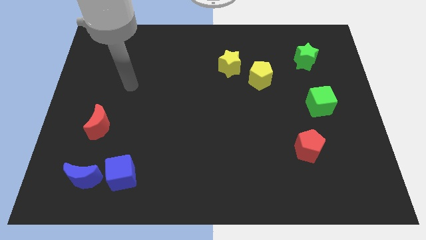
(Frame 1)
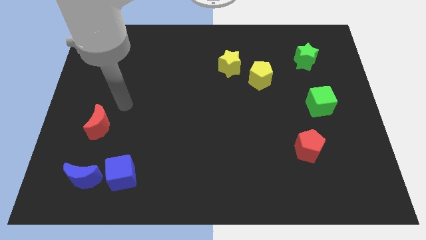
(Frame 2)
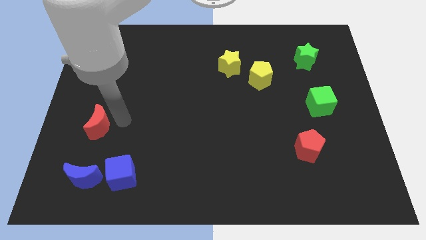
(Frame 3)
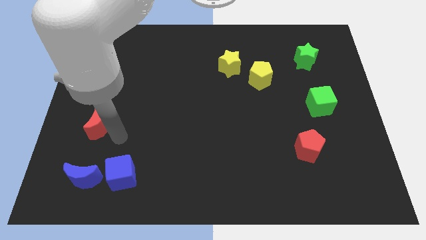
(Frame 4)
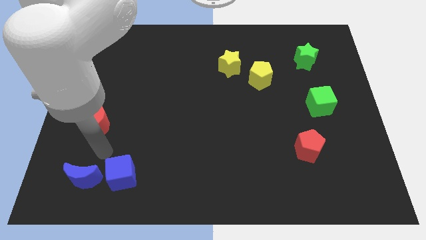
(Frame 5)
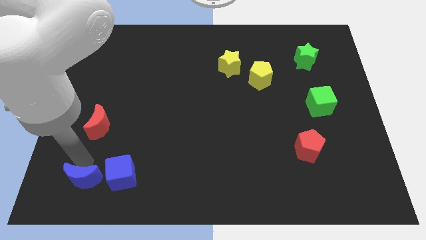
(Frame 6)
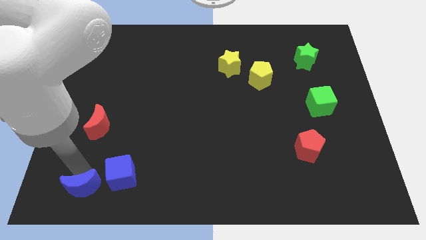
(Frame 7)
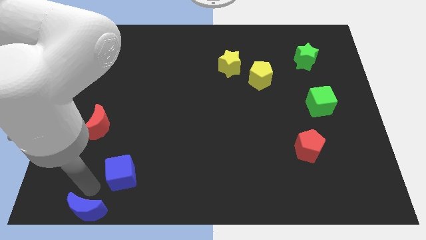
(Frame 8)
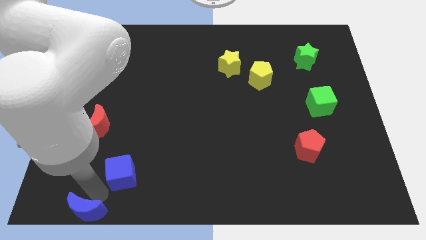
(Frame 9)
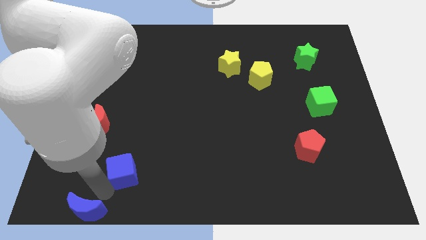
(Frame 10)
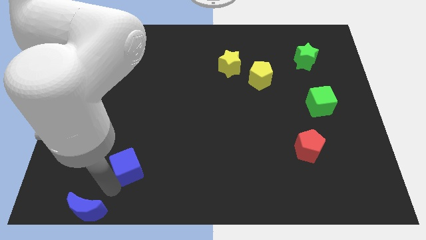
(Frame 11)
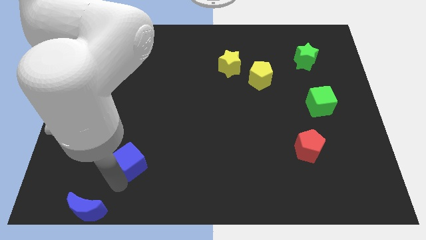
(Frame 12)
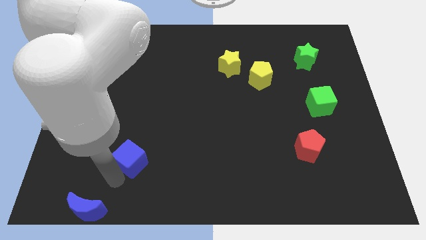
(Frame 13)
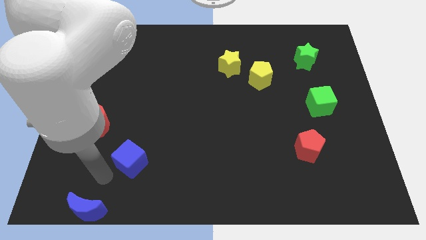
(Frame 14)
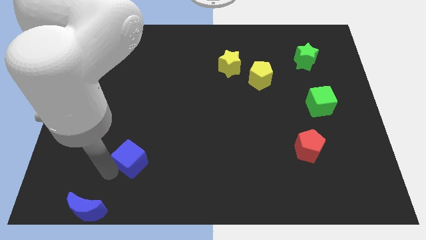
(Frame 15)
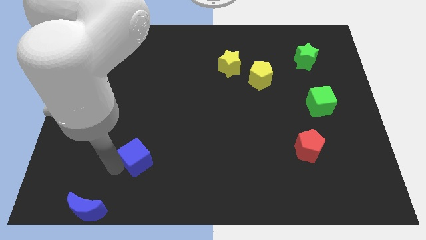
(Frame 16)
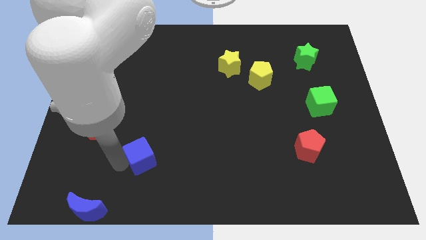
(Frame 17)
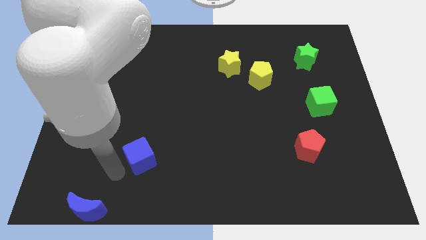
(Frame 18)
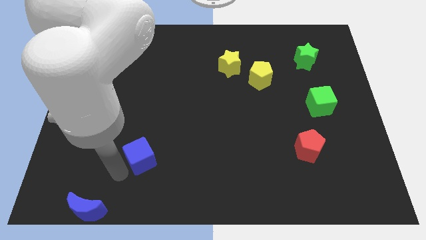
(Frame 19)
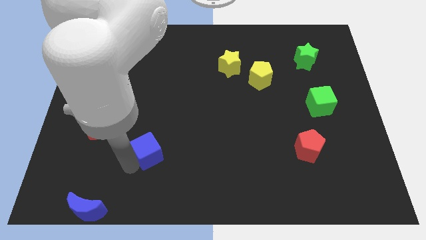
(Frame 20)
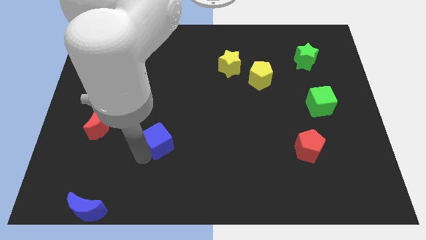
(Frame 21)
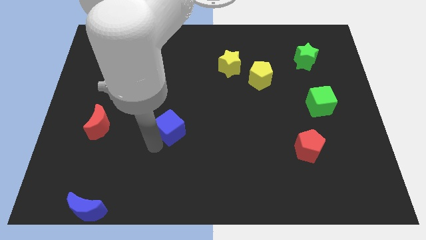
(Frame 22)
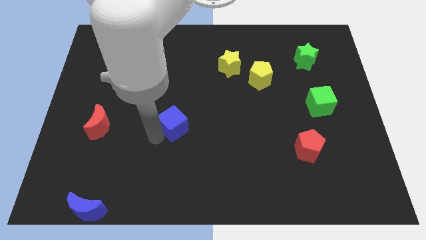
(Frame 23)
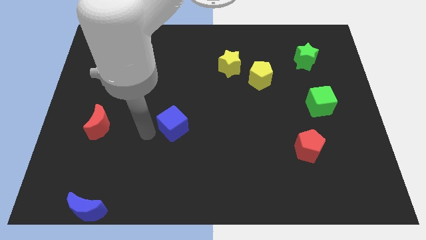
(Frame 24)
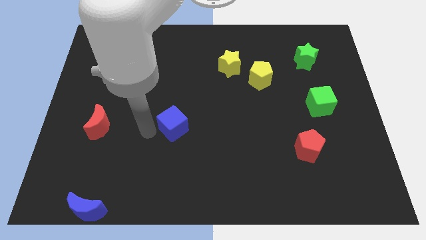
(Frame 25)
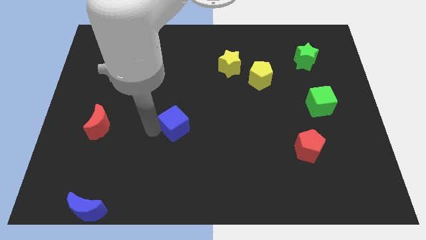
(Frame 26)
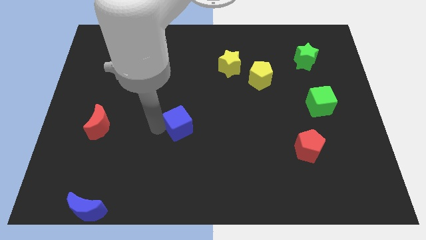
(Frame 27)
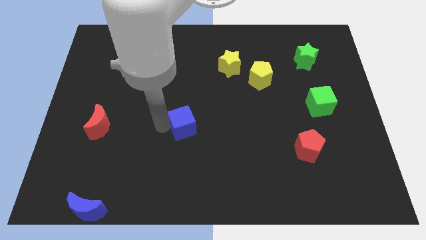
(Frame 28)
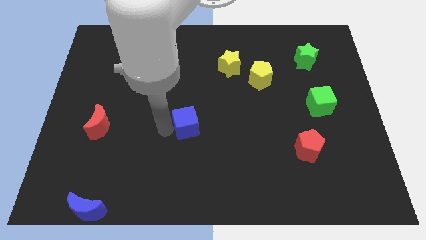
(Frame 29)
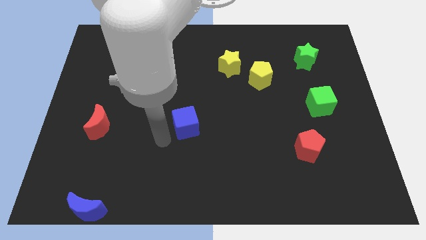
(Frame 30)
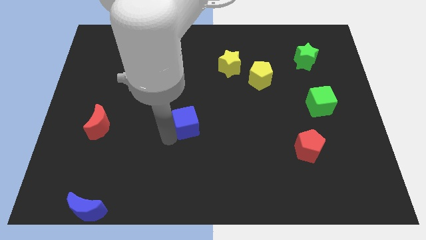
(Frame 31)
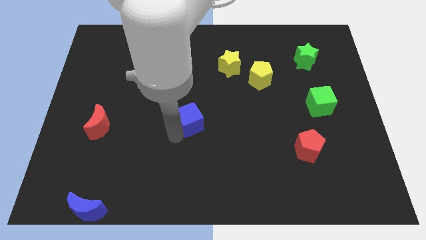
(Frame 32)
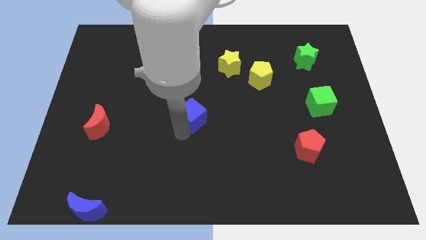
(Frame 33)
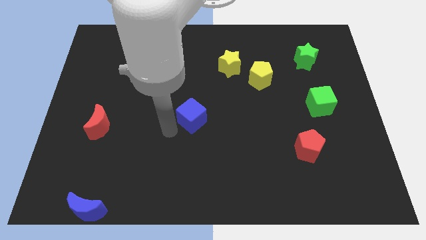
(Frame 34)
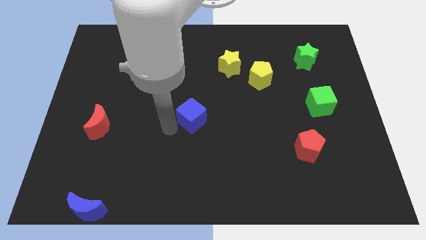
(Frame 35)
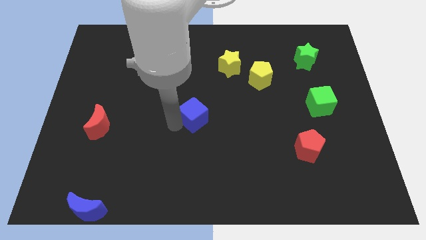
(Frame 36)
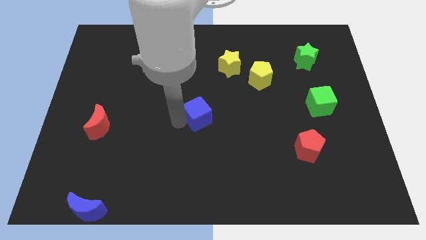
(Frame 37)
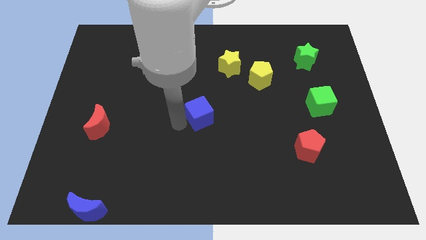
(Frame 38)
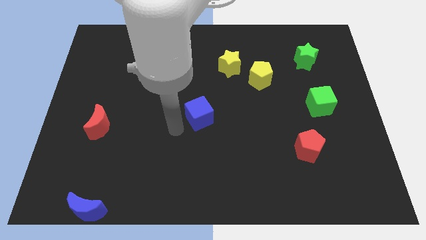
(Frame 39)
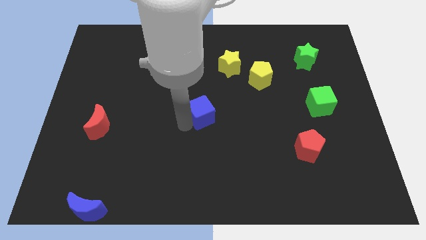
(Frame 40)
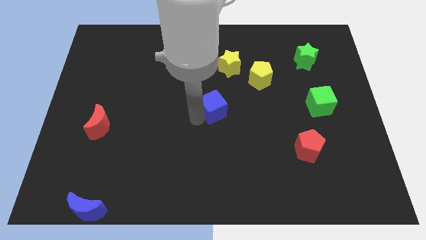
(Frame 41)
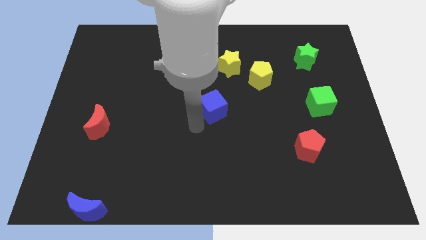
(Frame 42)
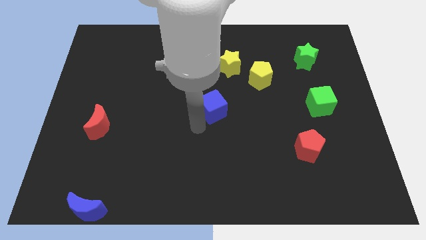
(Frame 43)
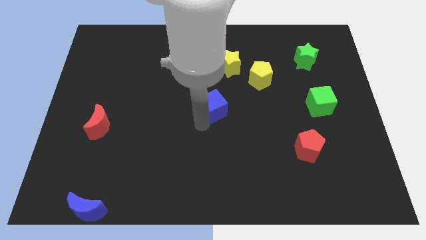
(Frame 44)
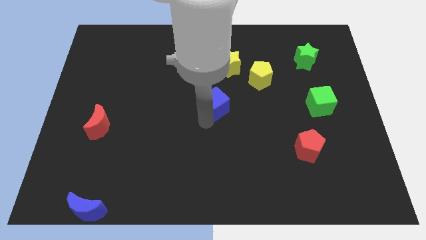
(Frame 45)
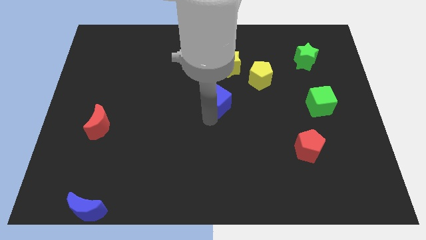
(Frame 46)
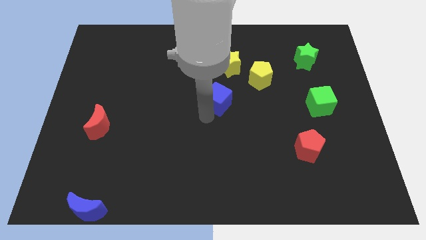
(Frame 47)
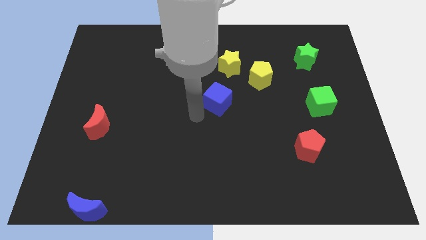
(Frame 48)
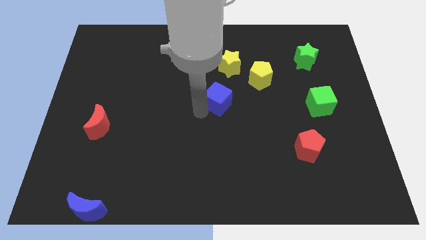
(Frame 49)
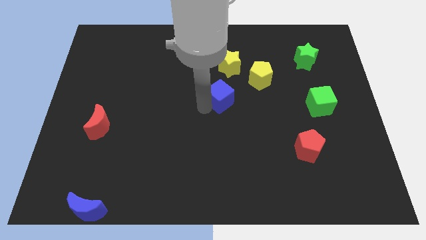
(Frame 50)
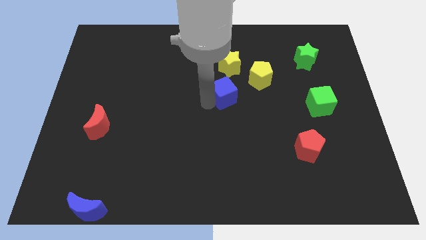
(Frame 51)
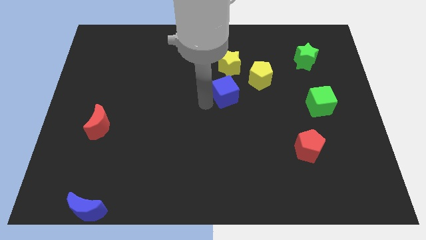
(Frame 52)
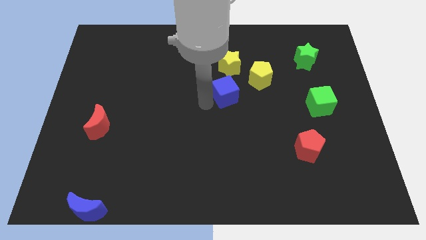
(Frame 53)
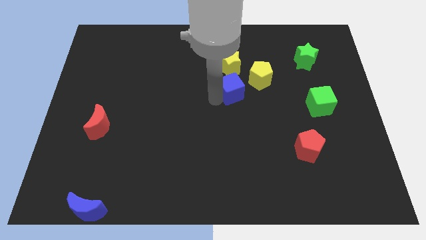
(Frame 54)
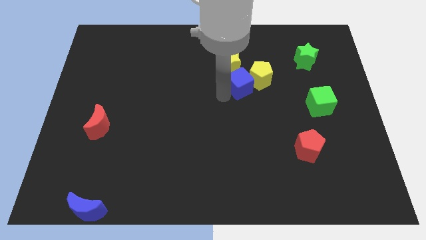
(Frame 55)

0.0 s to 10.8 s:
push the blue cube next to the yellow pentagon

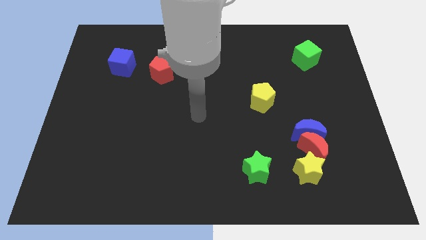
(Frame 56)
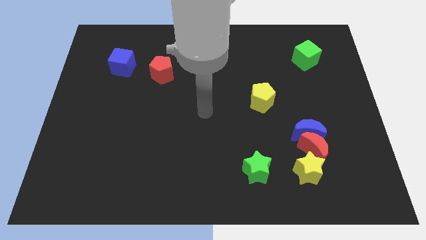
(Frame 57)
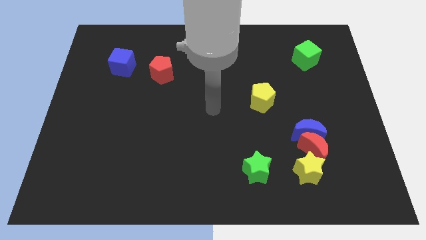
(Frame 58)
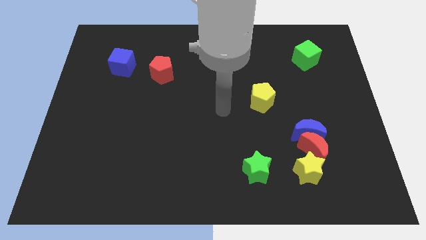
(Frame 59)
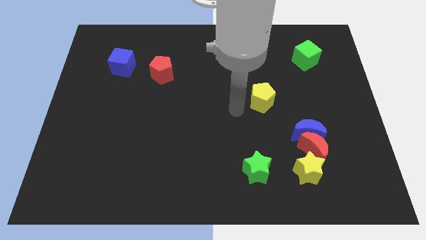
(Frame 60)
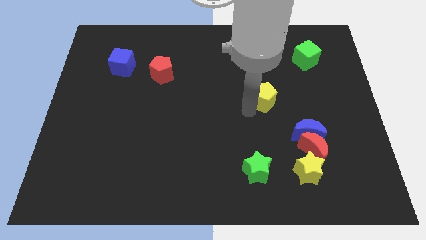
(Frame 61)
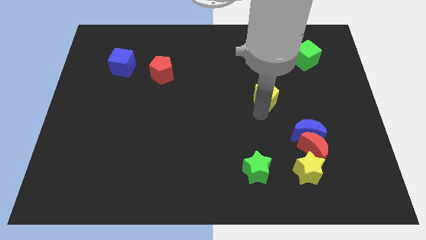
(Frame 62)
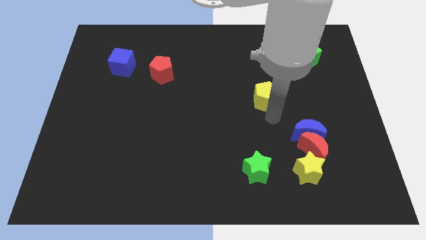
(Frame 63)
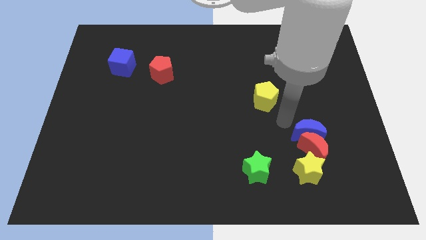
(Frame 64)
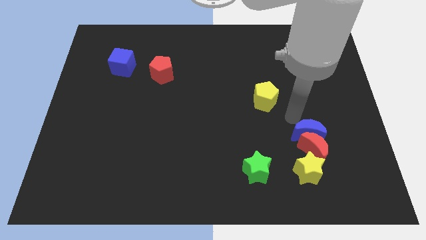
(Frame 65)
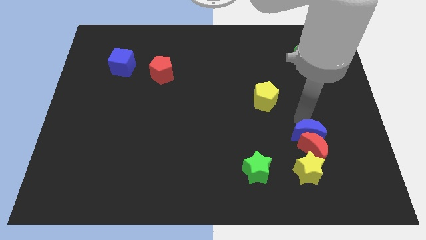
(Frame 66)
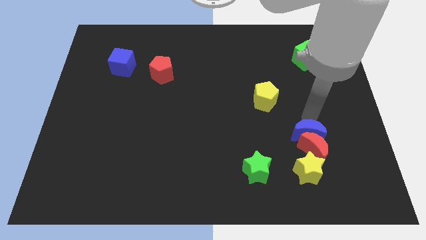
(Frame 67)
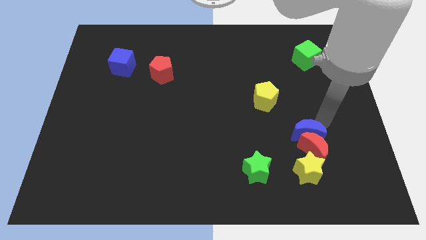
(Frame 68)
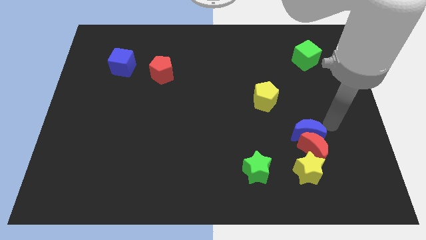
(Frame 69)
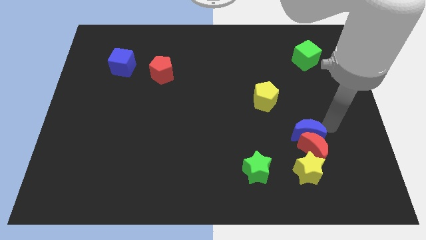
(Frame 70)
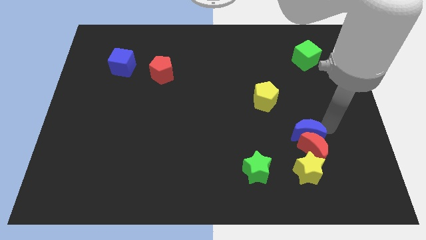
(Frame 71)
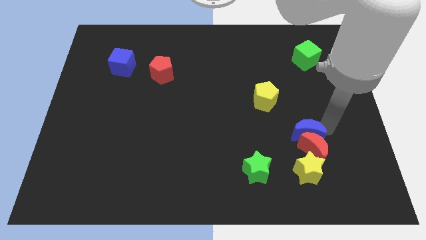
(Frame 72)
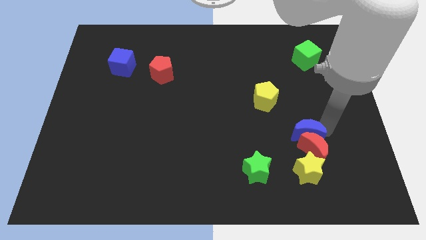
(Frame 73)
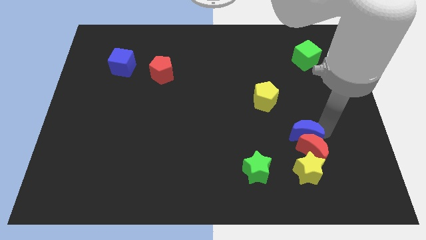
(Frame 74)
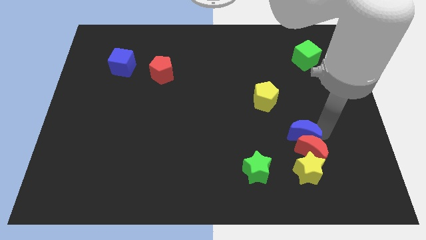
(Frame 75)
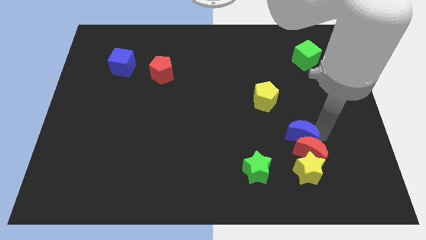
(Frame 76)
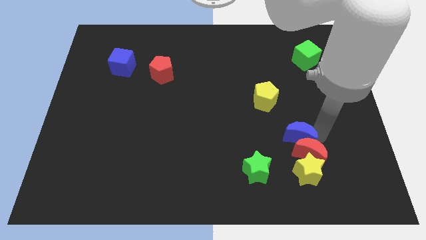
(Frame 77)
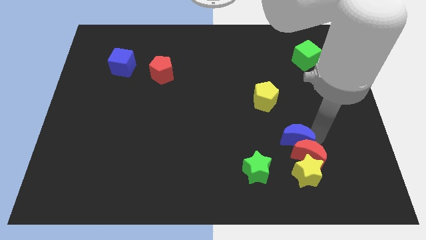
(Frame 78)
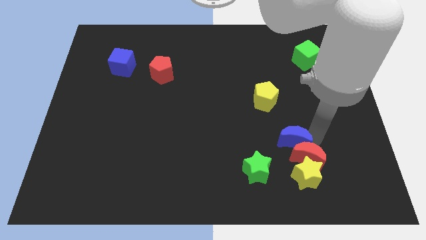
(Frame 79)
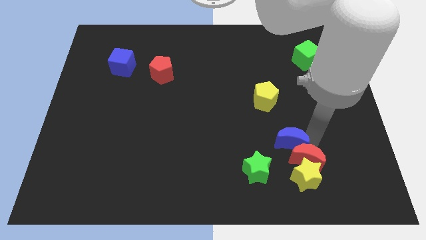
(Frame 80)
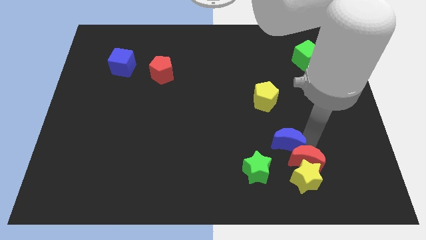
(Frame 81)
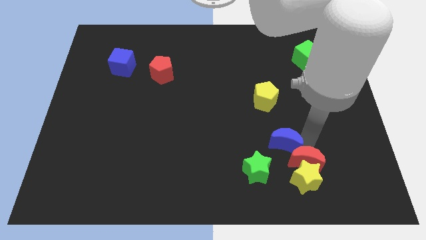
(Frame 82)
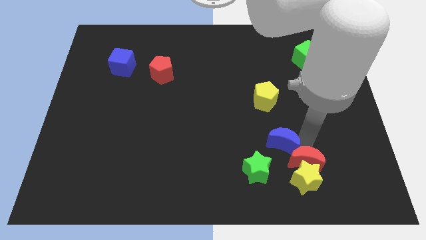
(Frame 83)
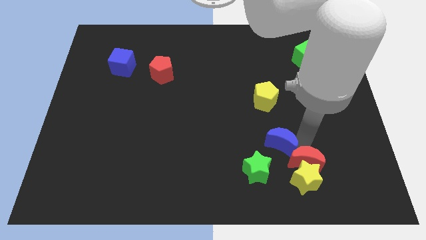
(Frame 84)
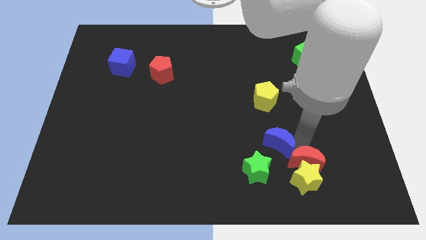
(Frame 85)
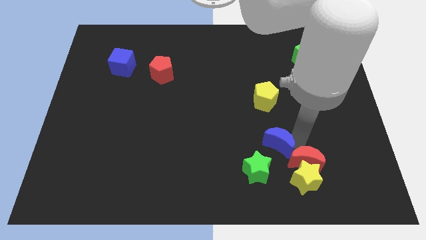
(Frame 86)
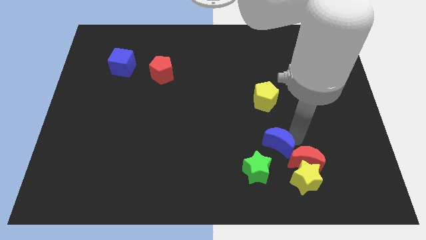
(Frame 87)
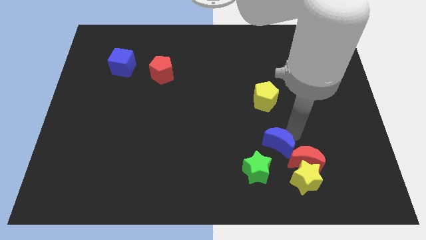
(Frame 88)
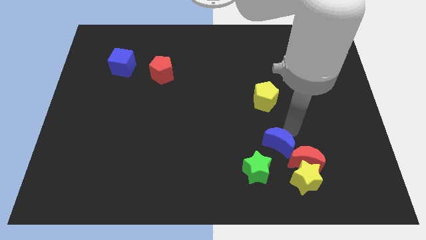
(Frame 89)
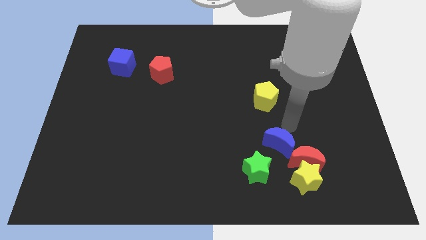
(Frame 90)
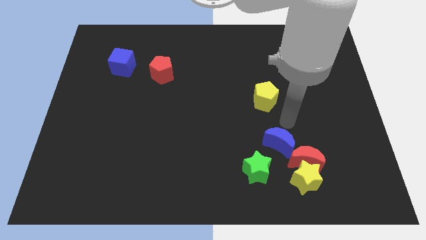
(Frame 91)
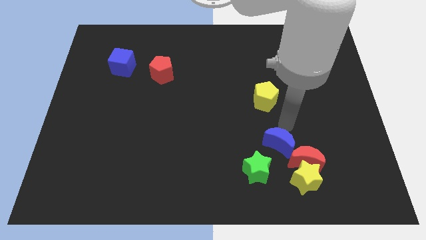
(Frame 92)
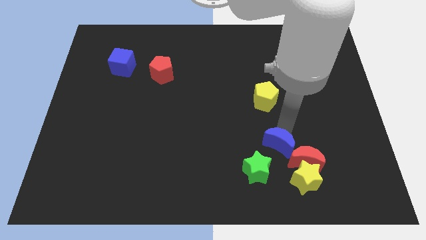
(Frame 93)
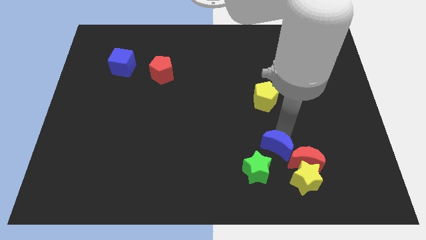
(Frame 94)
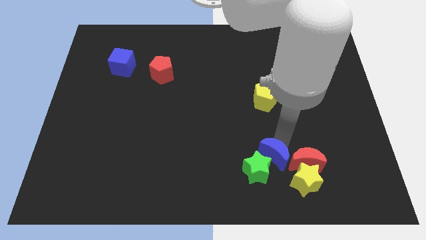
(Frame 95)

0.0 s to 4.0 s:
move the blue moon close to the green star
